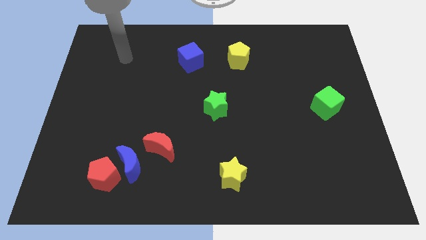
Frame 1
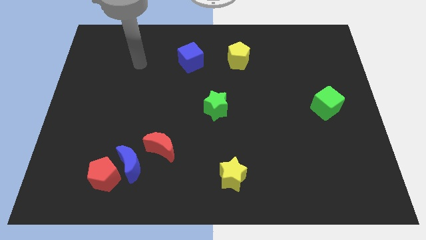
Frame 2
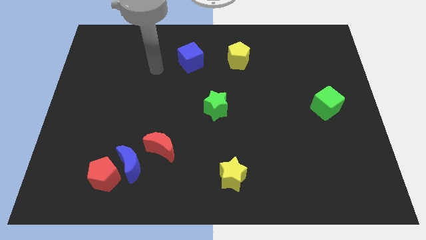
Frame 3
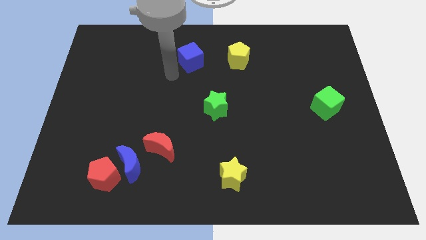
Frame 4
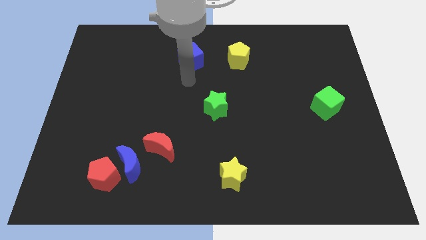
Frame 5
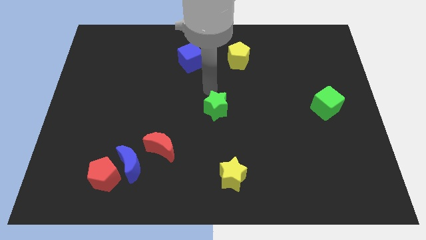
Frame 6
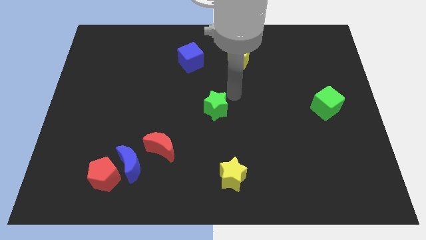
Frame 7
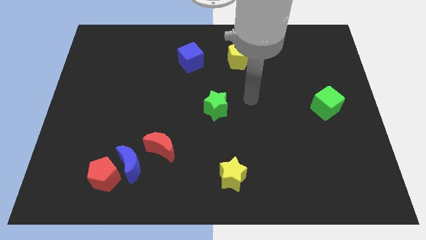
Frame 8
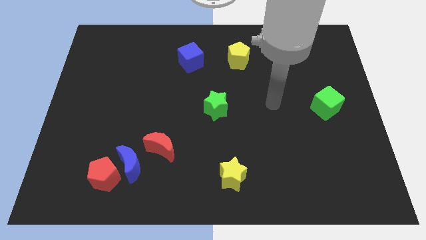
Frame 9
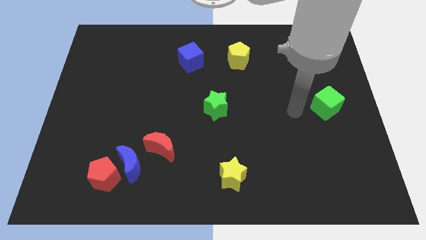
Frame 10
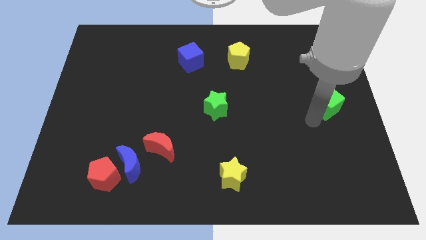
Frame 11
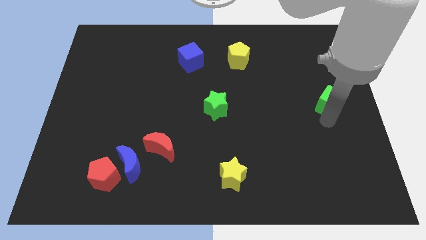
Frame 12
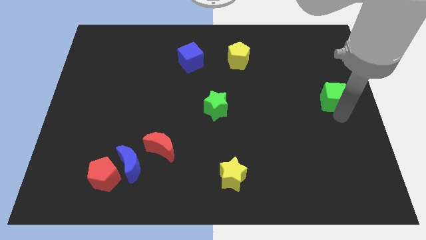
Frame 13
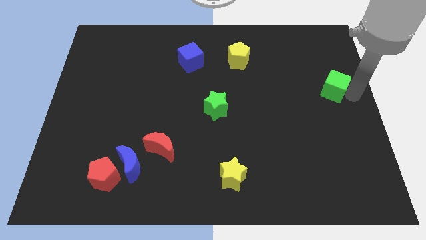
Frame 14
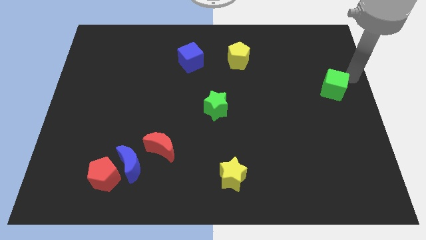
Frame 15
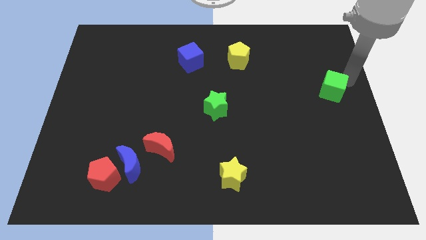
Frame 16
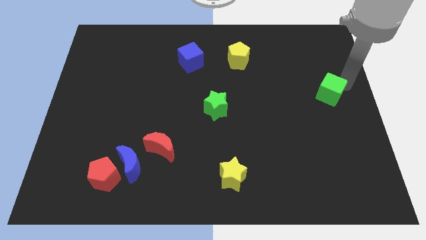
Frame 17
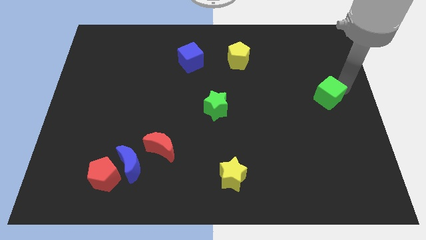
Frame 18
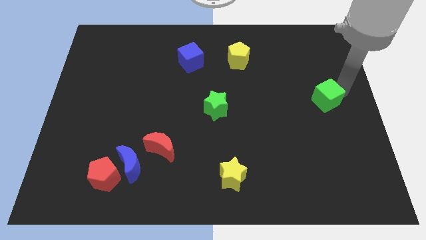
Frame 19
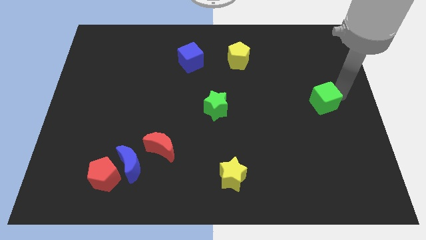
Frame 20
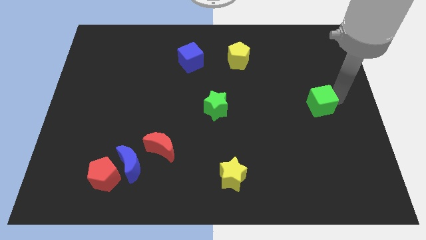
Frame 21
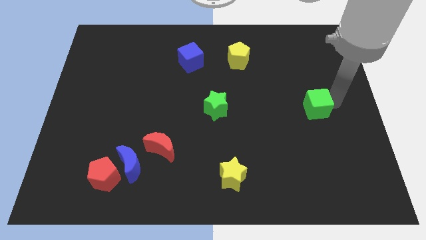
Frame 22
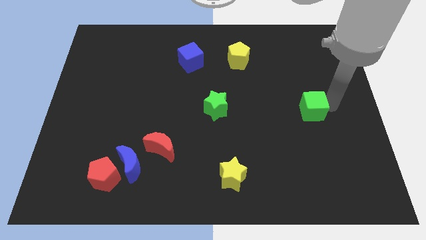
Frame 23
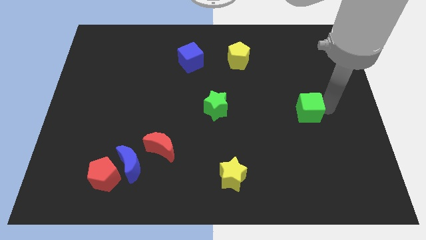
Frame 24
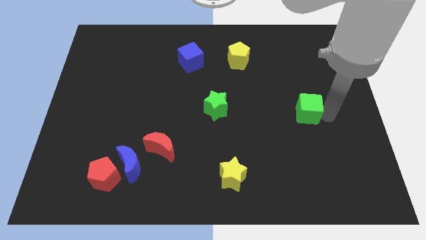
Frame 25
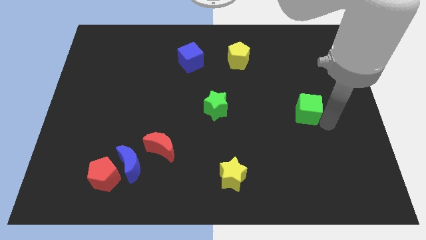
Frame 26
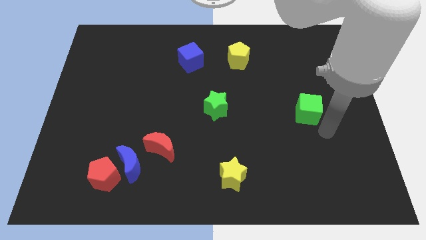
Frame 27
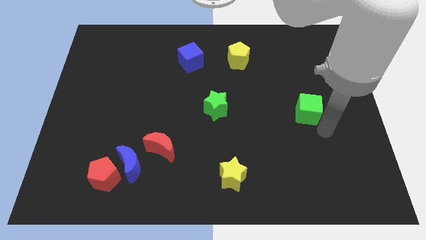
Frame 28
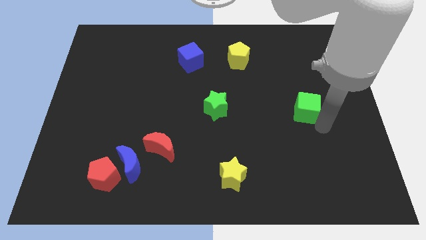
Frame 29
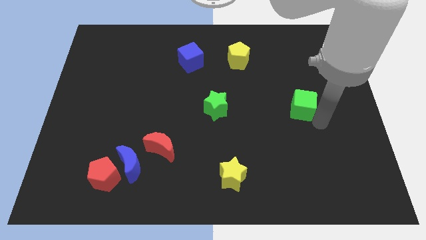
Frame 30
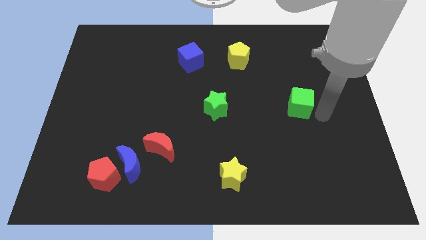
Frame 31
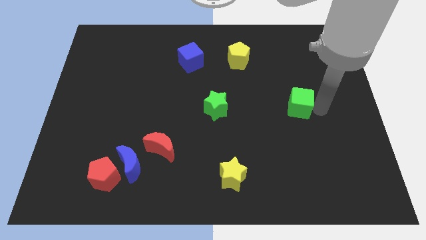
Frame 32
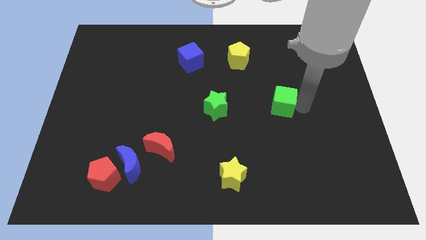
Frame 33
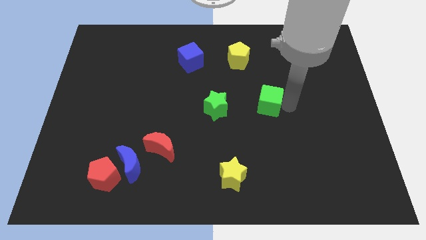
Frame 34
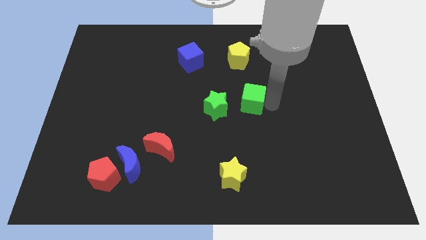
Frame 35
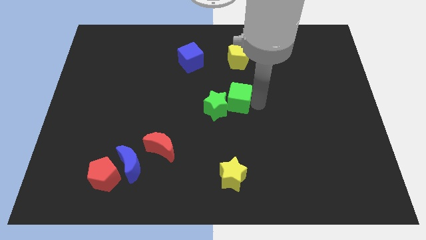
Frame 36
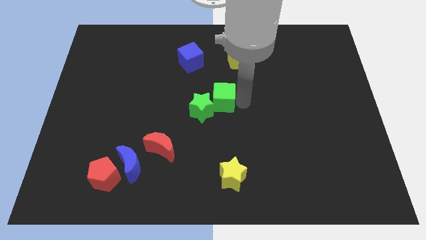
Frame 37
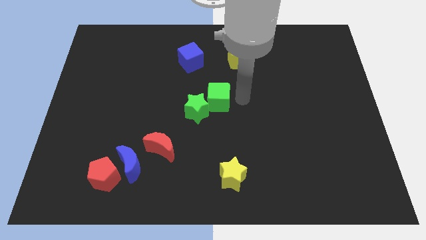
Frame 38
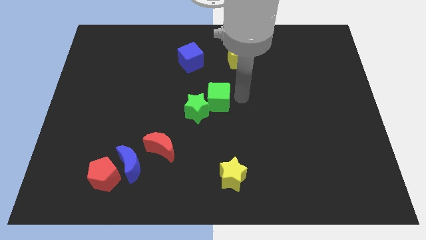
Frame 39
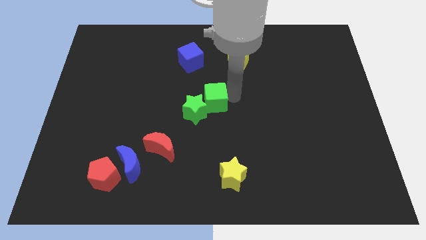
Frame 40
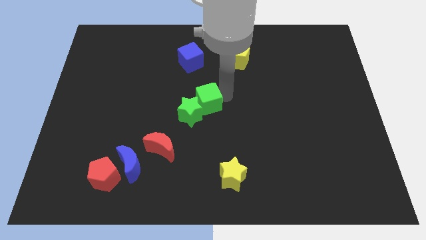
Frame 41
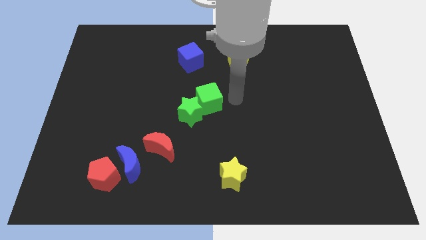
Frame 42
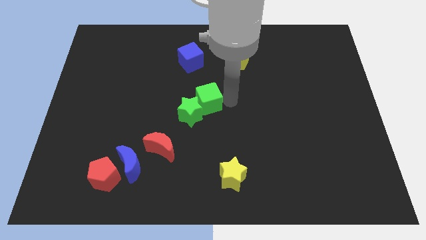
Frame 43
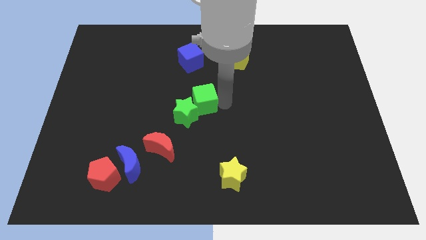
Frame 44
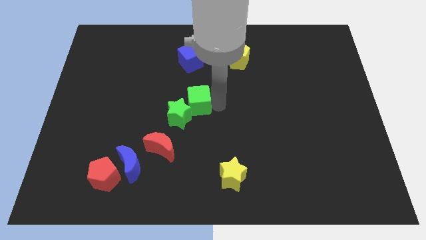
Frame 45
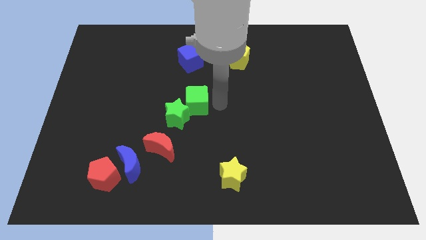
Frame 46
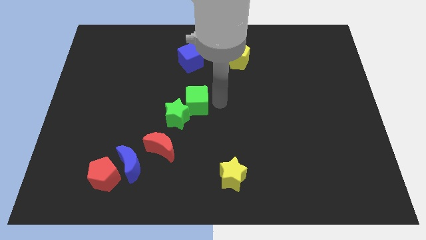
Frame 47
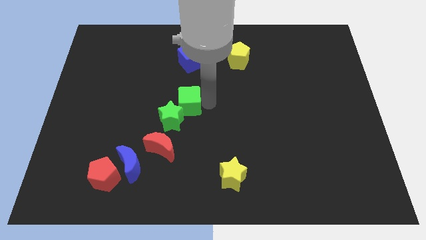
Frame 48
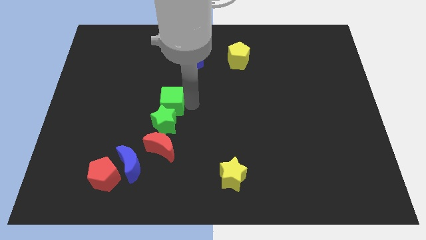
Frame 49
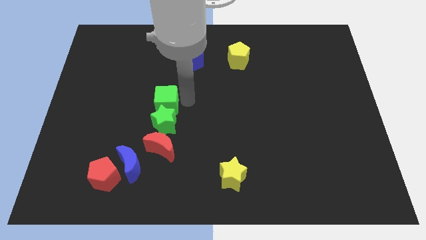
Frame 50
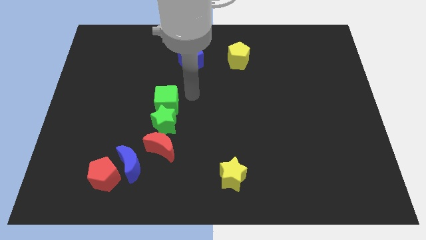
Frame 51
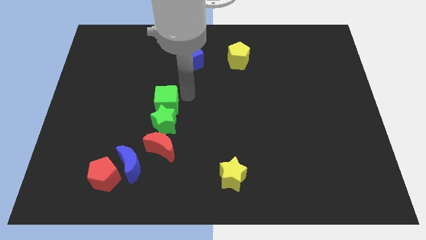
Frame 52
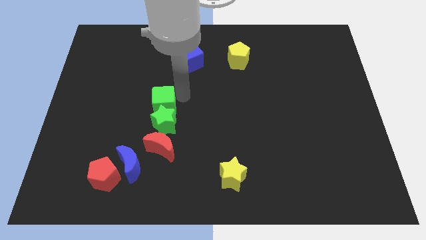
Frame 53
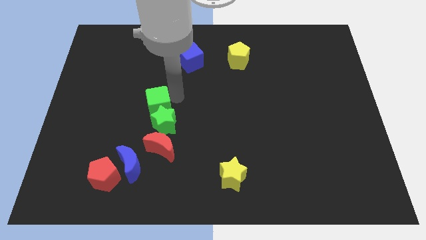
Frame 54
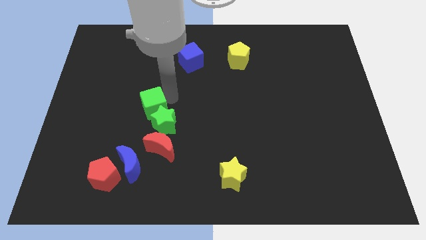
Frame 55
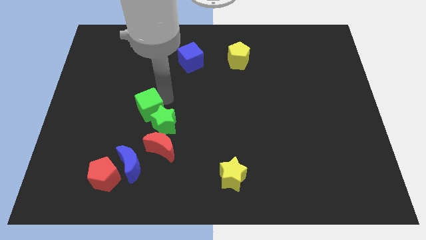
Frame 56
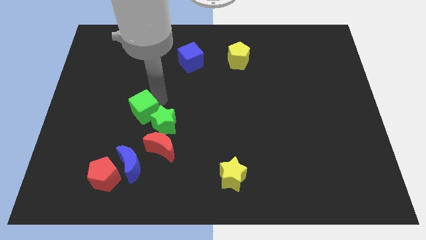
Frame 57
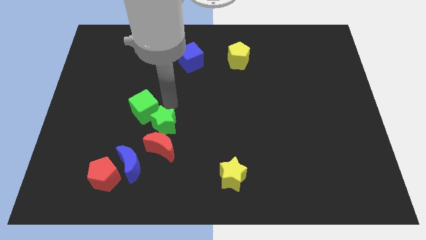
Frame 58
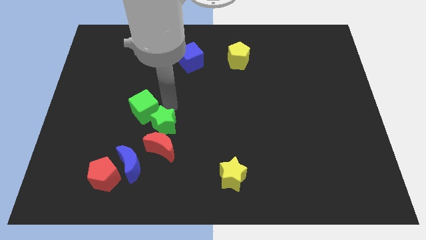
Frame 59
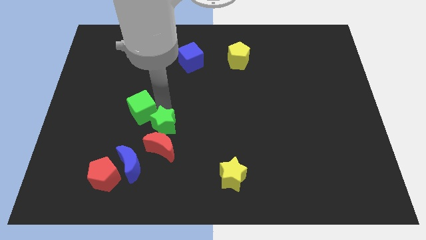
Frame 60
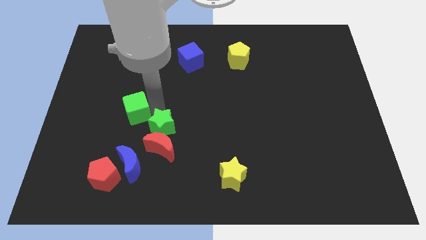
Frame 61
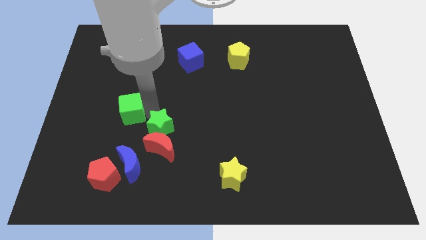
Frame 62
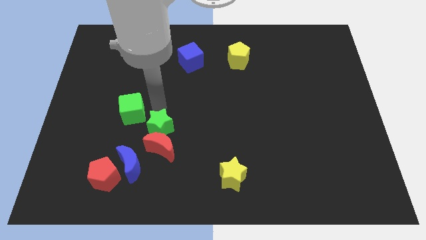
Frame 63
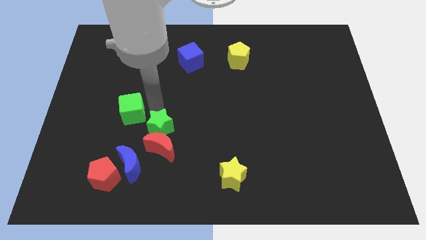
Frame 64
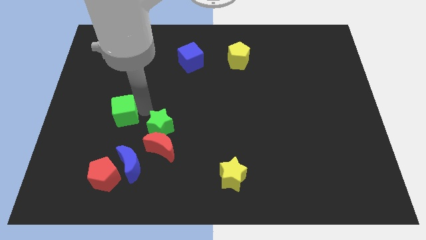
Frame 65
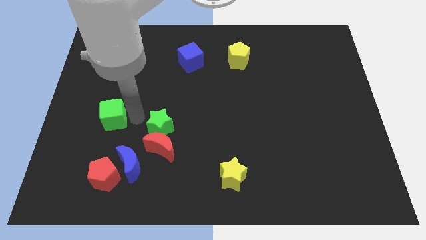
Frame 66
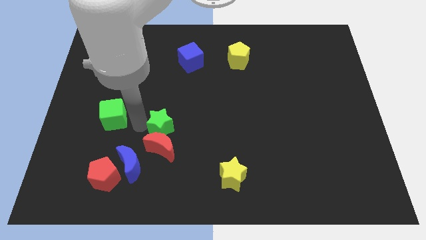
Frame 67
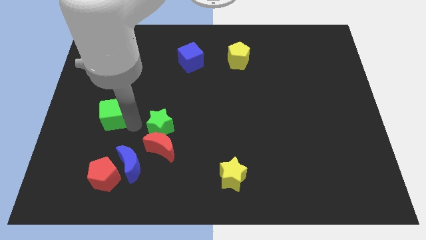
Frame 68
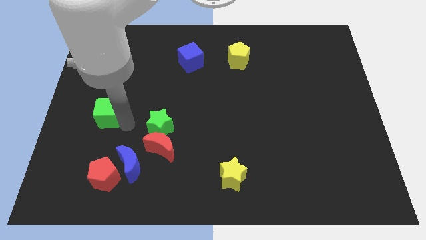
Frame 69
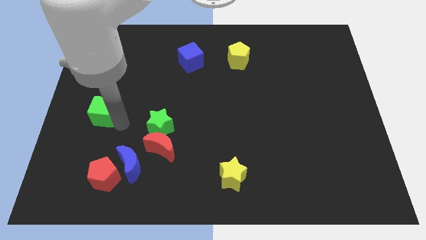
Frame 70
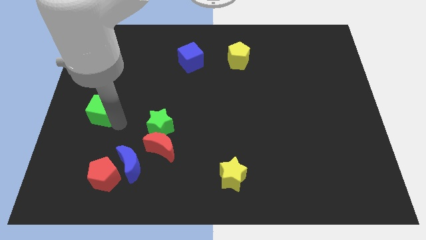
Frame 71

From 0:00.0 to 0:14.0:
put the green cube to the left side
